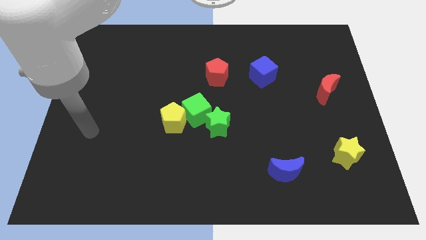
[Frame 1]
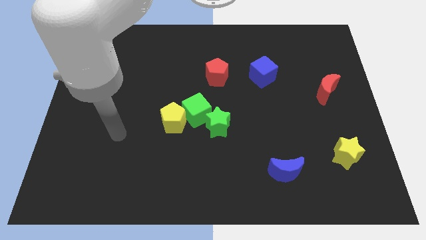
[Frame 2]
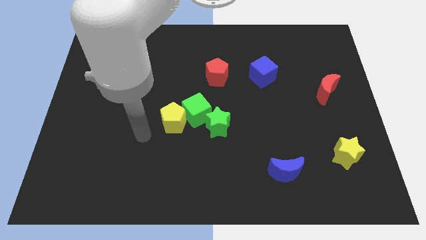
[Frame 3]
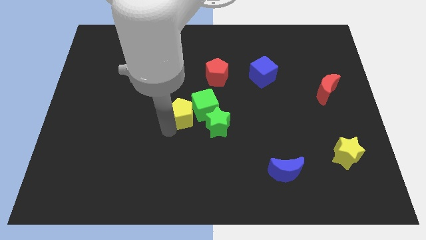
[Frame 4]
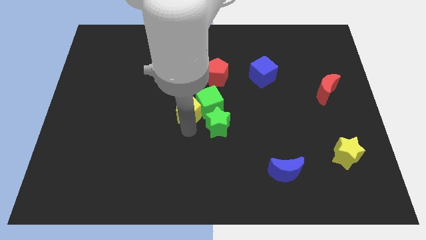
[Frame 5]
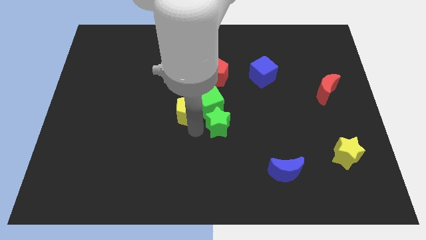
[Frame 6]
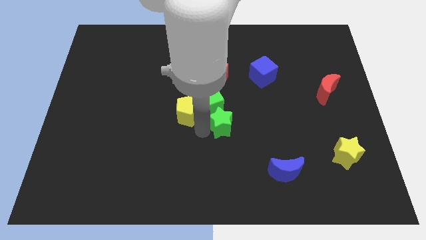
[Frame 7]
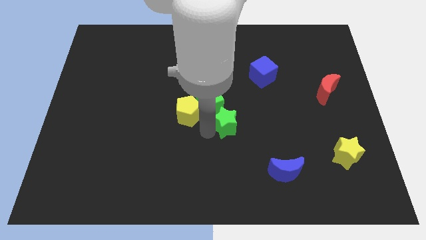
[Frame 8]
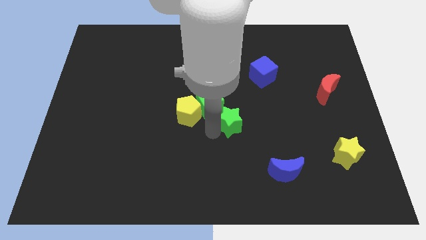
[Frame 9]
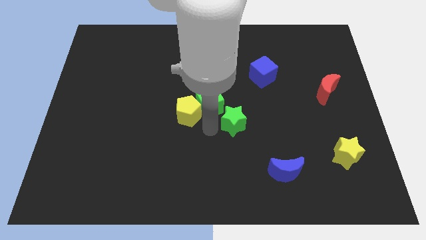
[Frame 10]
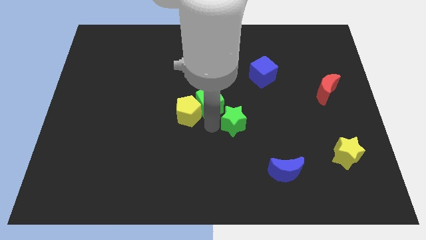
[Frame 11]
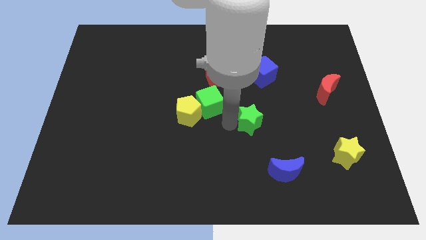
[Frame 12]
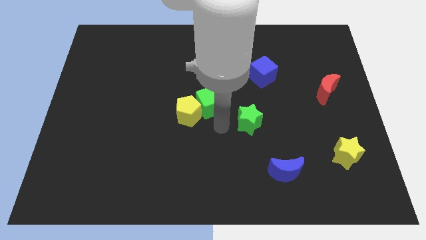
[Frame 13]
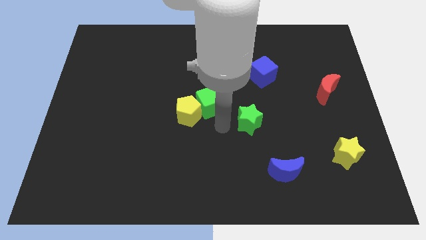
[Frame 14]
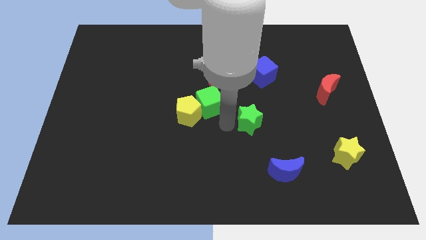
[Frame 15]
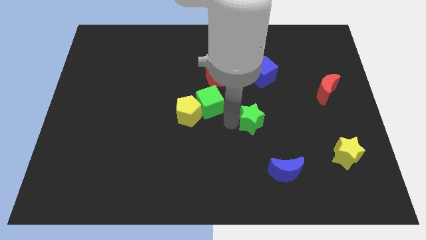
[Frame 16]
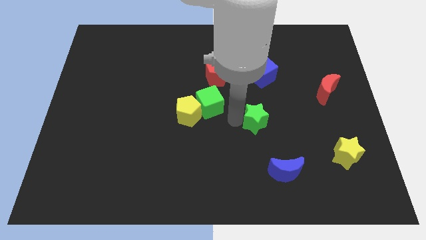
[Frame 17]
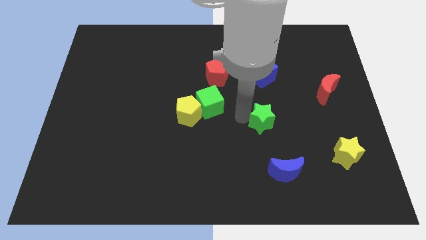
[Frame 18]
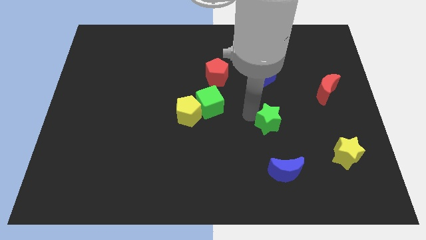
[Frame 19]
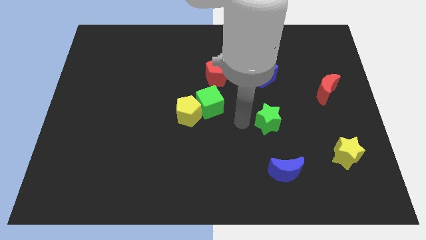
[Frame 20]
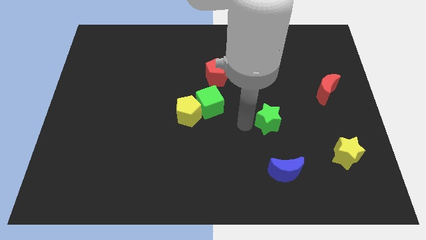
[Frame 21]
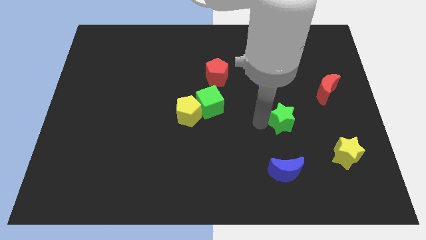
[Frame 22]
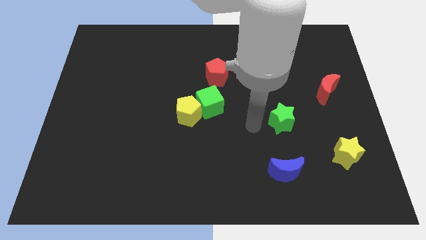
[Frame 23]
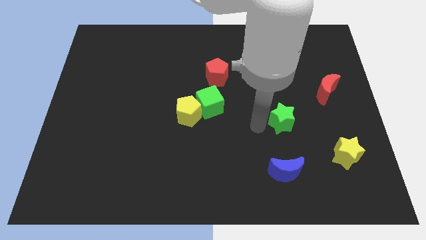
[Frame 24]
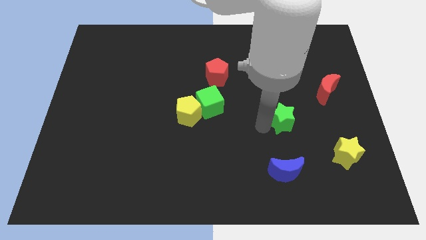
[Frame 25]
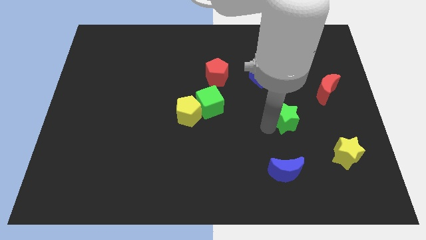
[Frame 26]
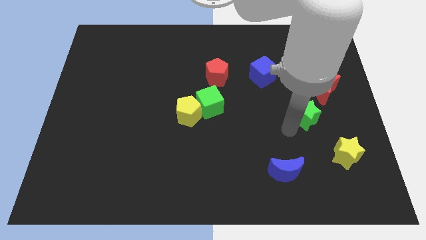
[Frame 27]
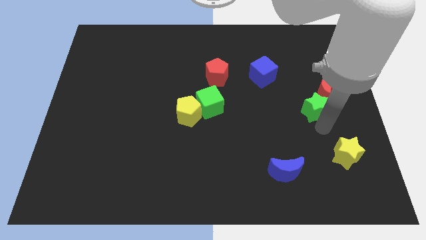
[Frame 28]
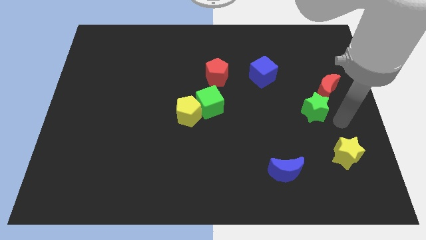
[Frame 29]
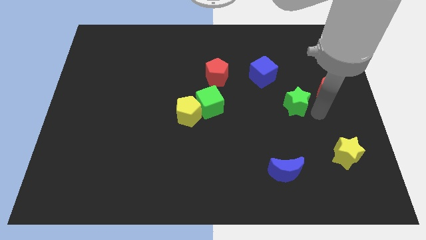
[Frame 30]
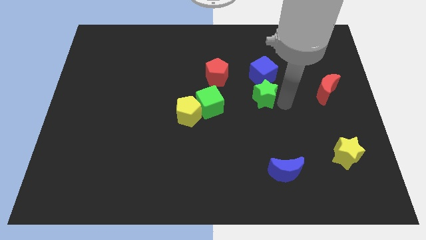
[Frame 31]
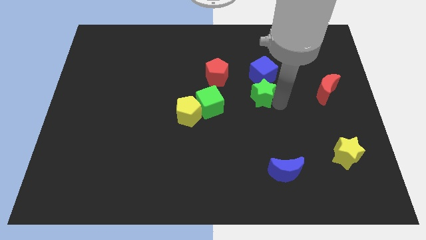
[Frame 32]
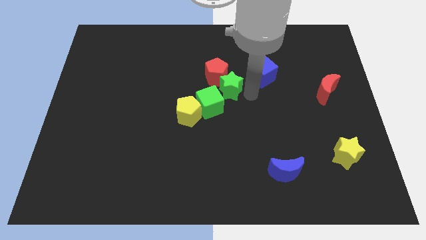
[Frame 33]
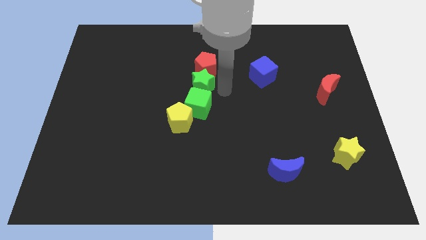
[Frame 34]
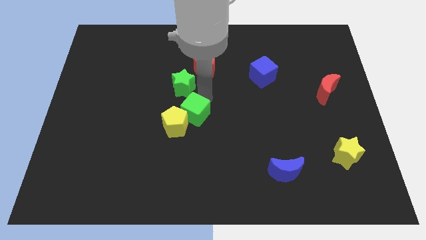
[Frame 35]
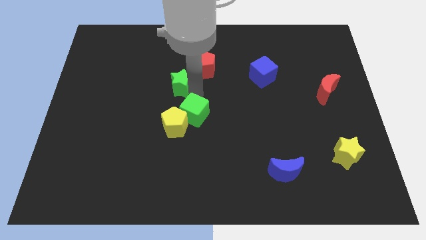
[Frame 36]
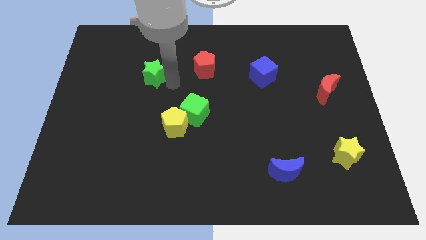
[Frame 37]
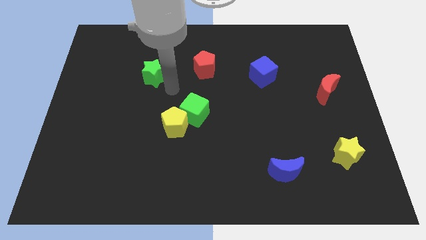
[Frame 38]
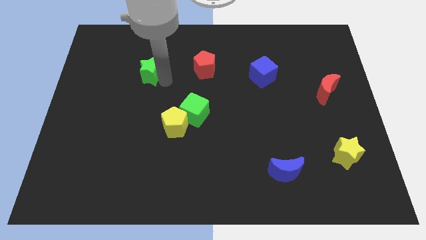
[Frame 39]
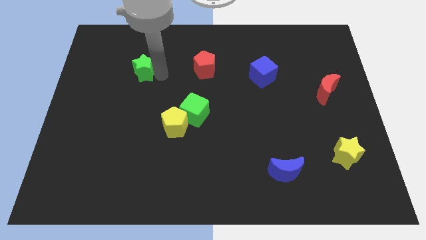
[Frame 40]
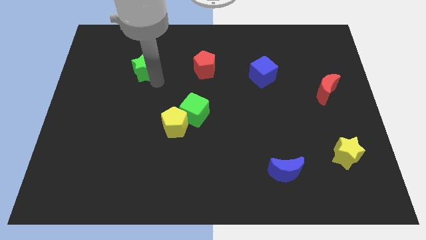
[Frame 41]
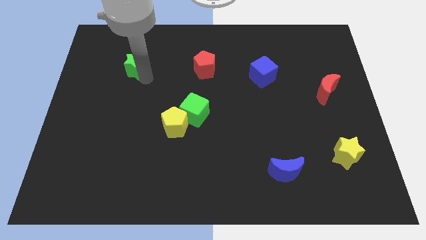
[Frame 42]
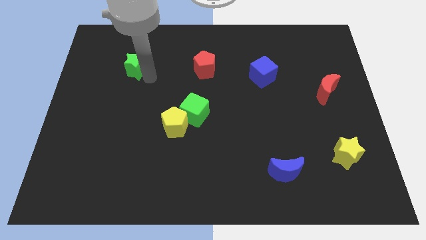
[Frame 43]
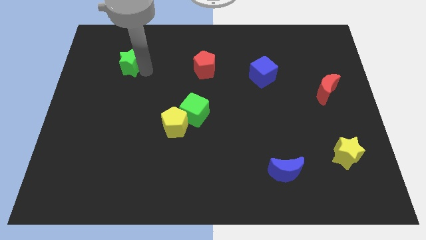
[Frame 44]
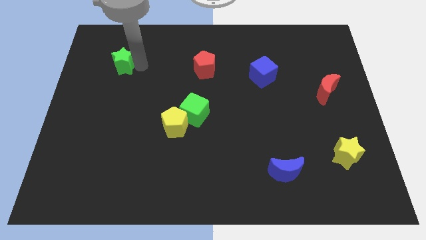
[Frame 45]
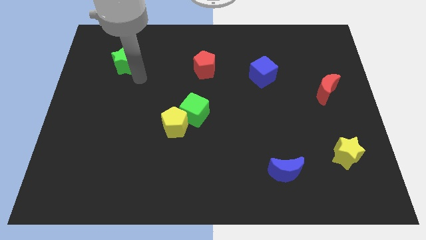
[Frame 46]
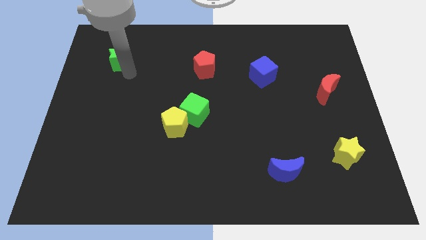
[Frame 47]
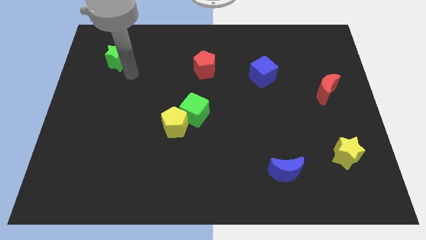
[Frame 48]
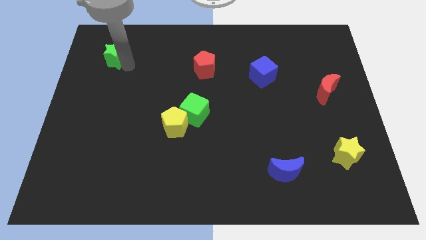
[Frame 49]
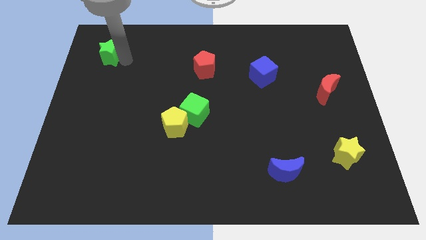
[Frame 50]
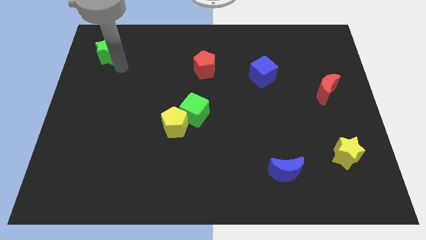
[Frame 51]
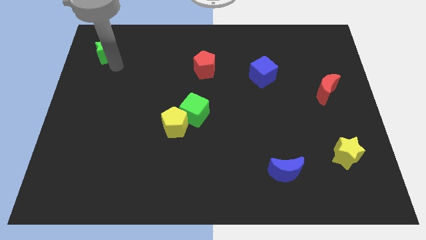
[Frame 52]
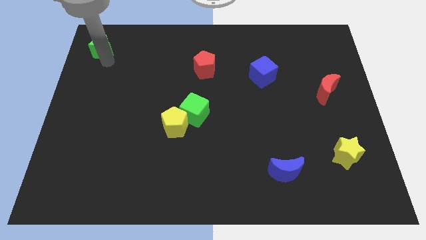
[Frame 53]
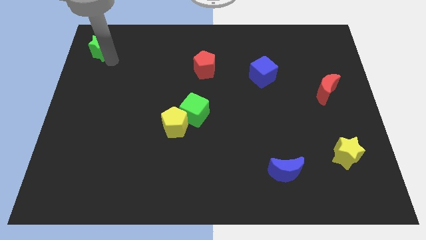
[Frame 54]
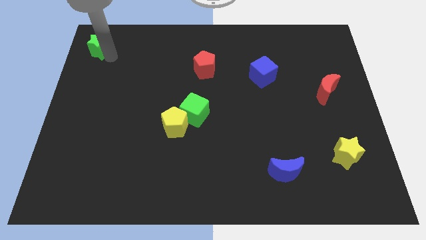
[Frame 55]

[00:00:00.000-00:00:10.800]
slide the green star to the top left of the board

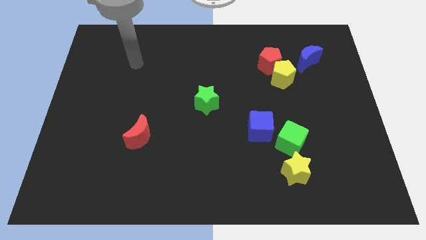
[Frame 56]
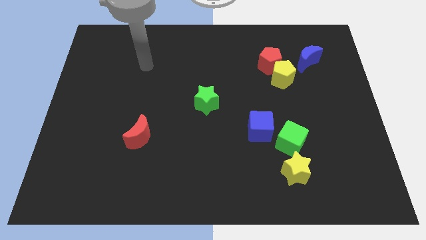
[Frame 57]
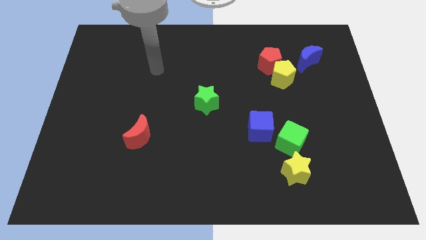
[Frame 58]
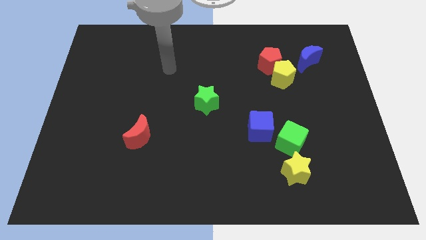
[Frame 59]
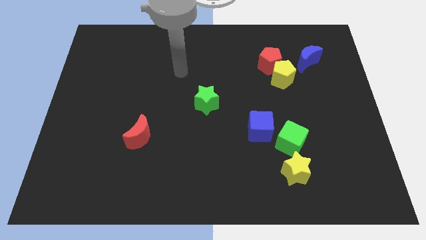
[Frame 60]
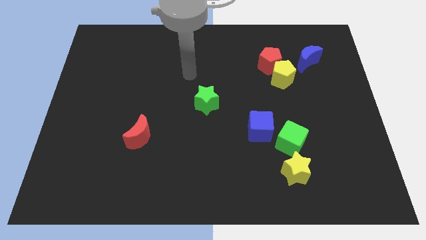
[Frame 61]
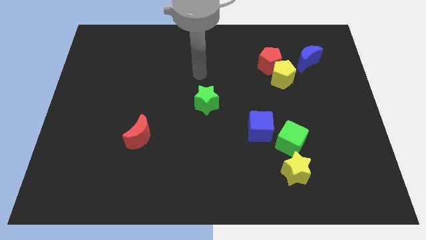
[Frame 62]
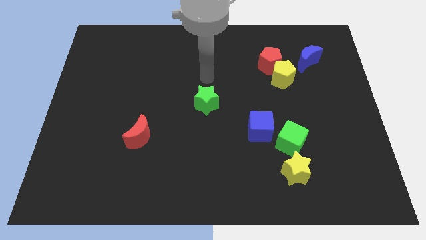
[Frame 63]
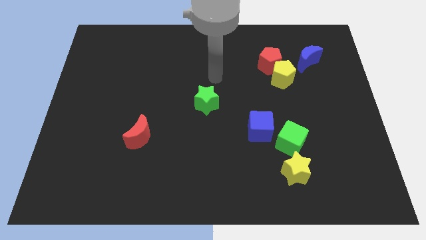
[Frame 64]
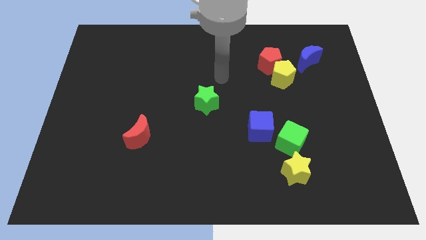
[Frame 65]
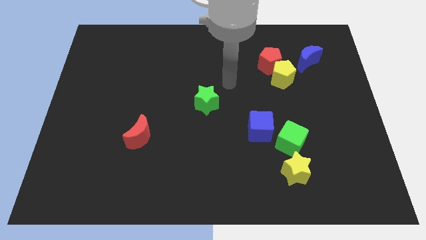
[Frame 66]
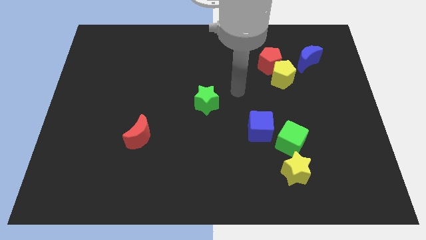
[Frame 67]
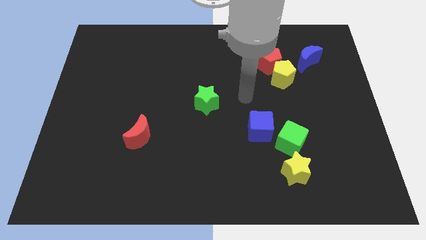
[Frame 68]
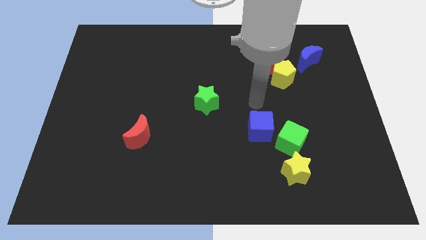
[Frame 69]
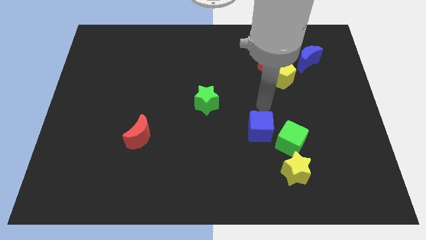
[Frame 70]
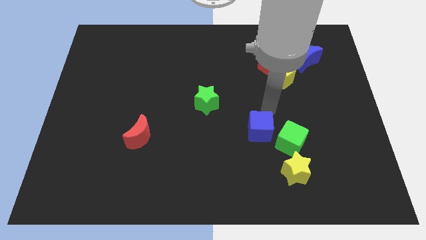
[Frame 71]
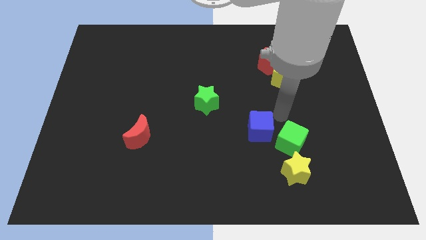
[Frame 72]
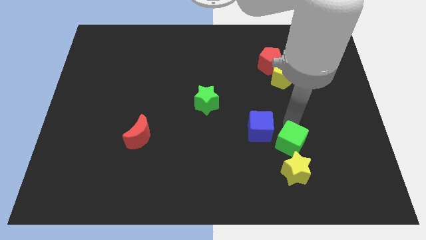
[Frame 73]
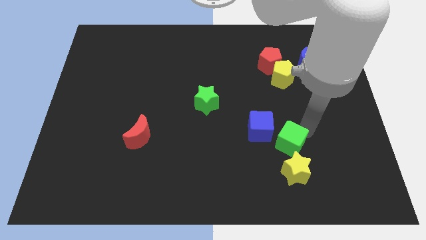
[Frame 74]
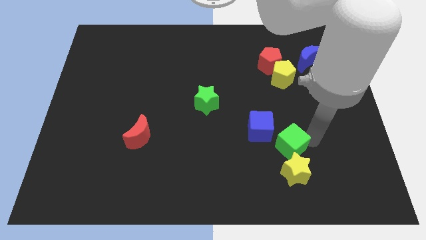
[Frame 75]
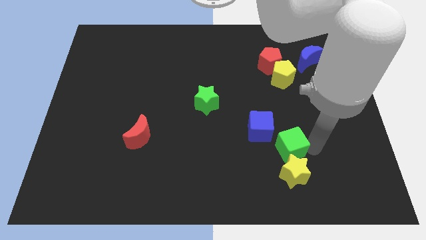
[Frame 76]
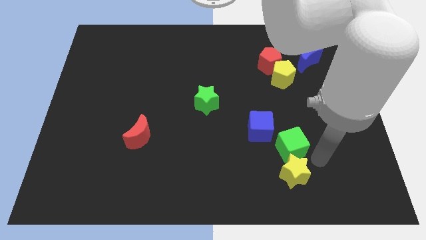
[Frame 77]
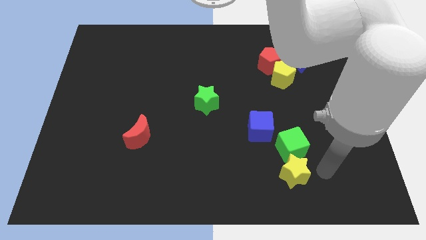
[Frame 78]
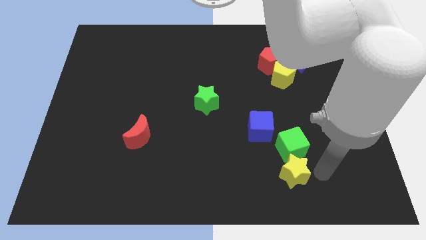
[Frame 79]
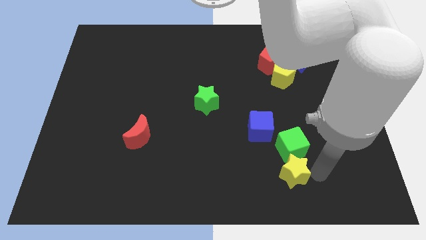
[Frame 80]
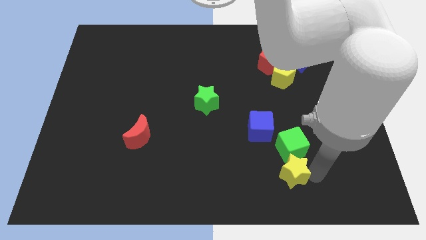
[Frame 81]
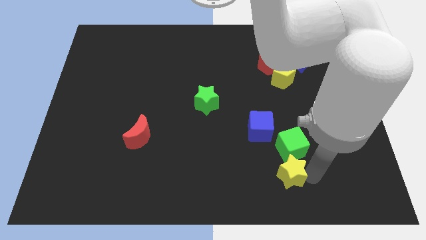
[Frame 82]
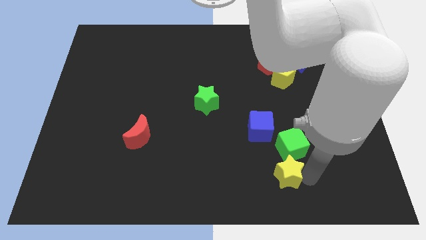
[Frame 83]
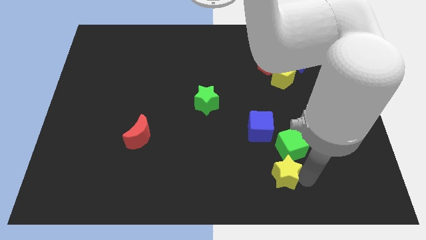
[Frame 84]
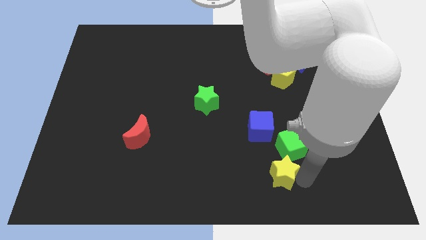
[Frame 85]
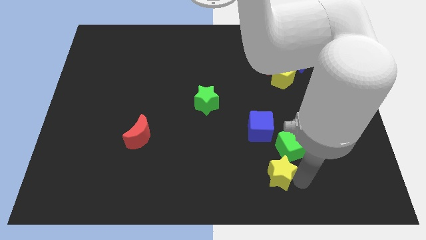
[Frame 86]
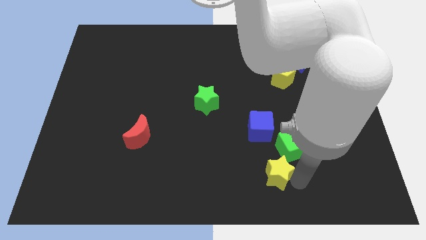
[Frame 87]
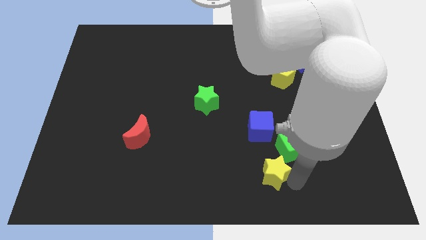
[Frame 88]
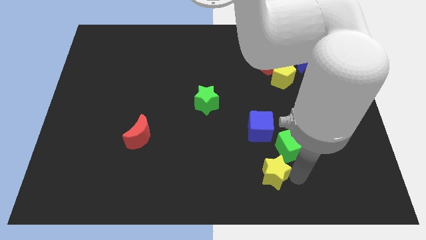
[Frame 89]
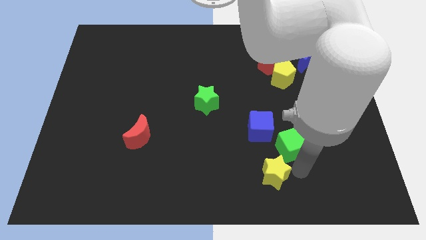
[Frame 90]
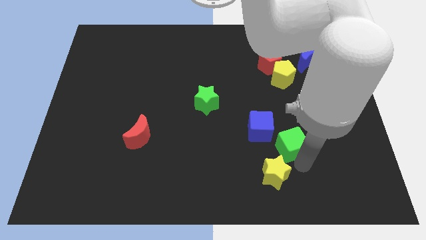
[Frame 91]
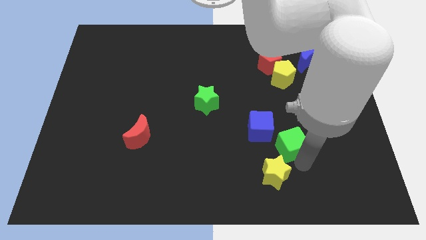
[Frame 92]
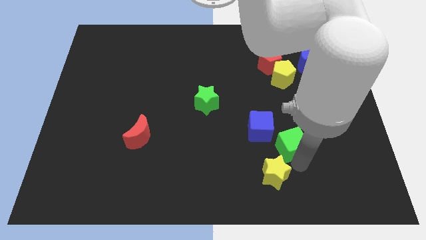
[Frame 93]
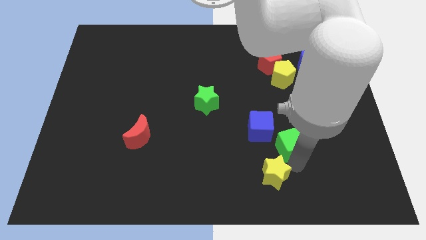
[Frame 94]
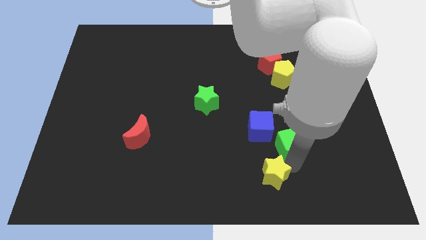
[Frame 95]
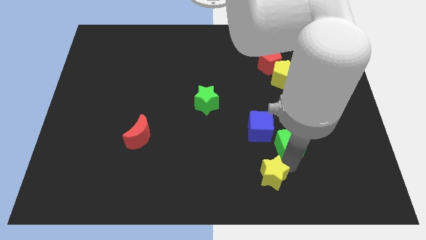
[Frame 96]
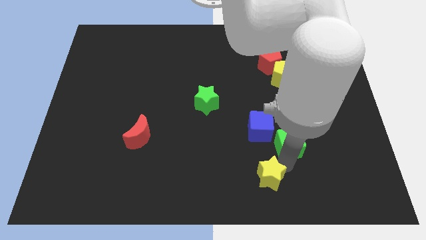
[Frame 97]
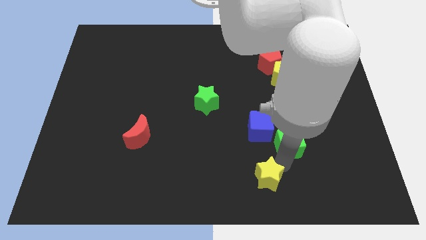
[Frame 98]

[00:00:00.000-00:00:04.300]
push the yellow star to the bottom side
